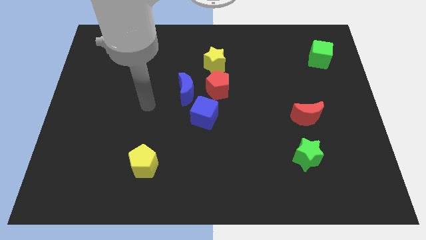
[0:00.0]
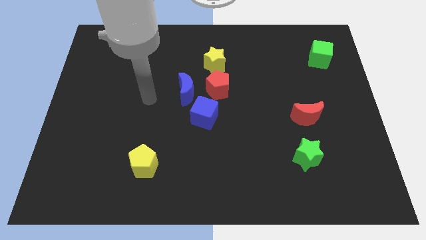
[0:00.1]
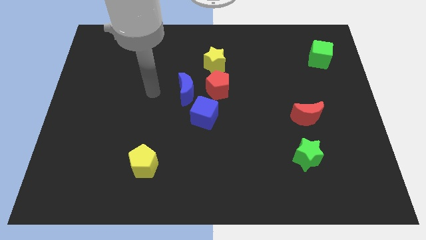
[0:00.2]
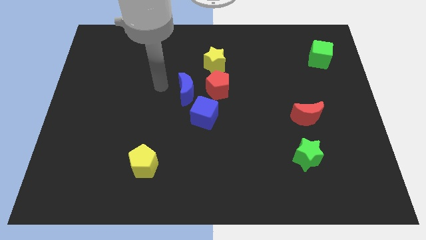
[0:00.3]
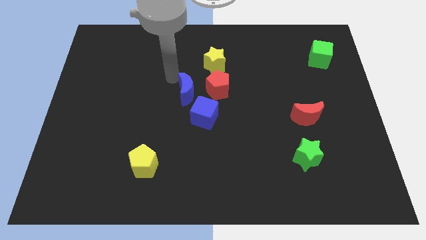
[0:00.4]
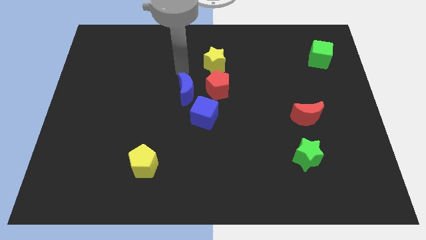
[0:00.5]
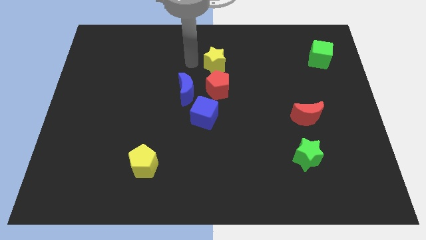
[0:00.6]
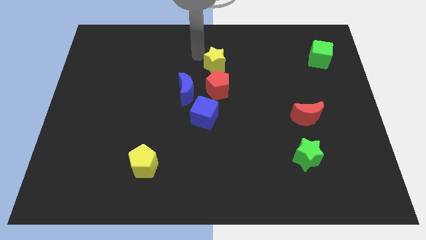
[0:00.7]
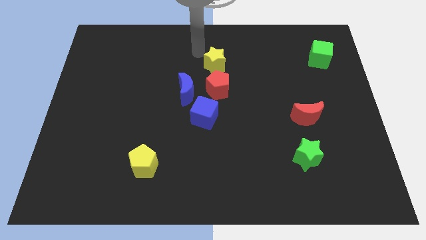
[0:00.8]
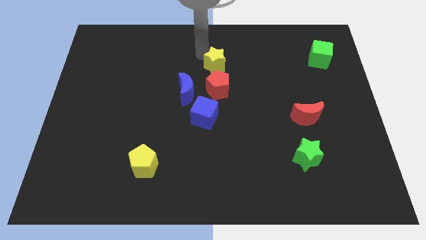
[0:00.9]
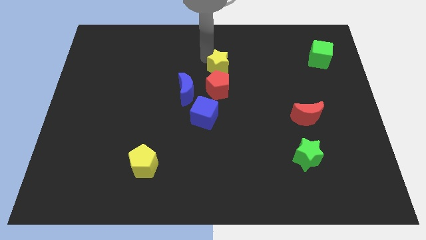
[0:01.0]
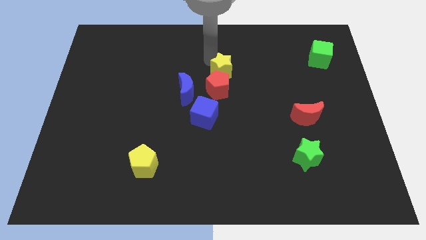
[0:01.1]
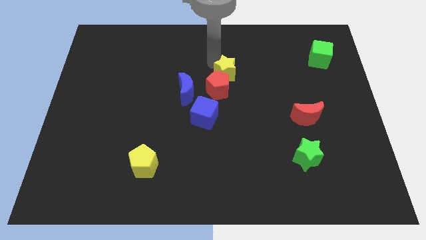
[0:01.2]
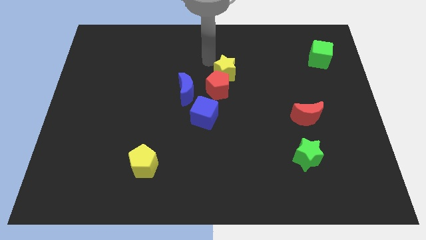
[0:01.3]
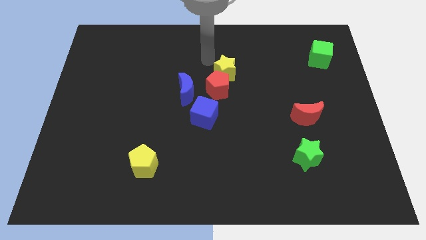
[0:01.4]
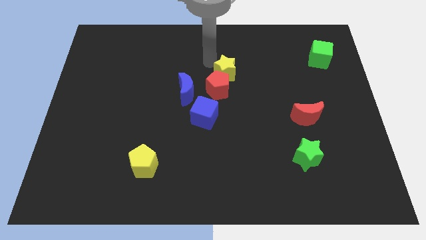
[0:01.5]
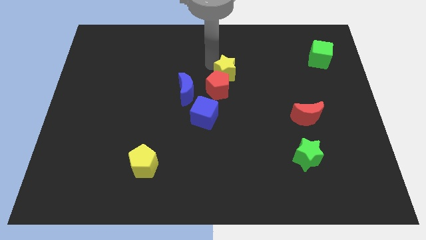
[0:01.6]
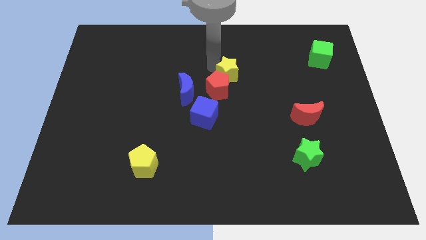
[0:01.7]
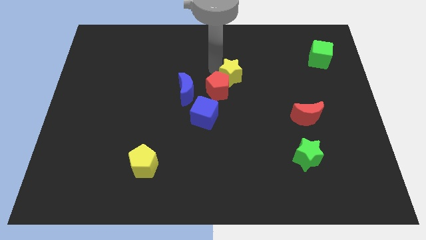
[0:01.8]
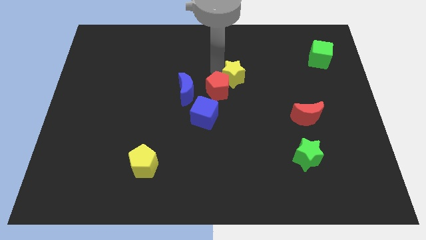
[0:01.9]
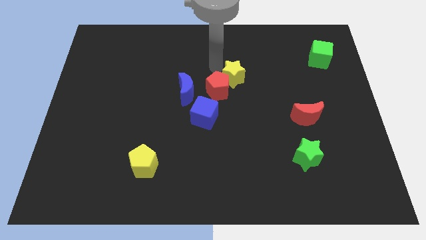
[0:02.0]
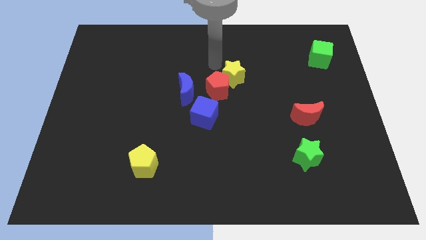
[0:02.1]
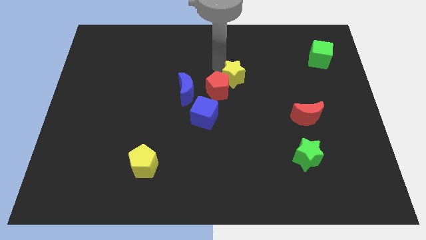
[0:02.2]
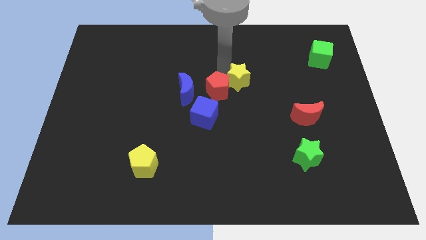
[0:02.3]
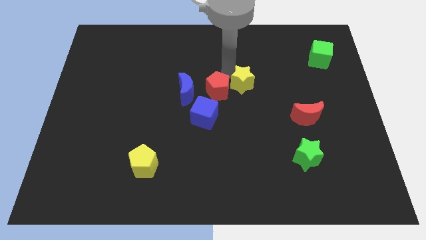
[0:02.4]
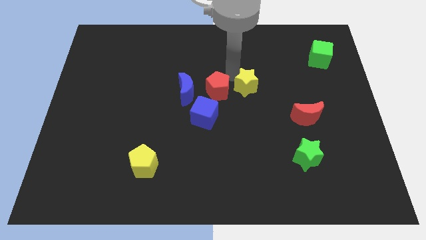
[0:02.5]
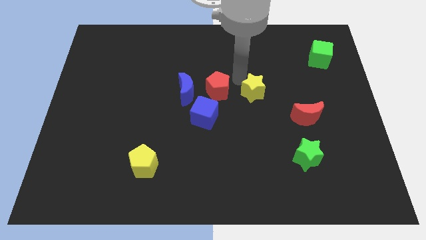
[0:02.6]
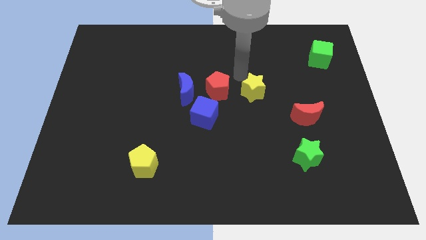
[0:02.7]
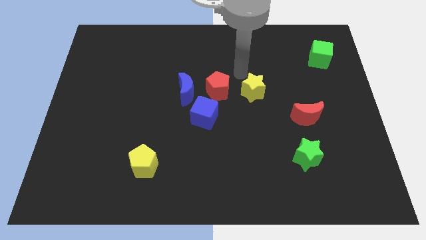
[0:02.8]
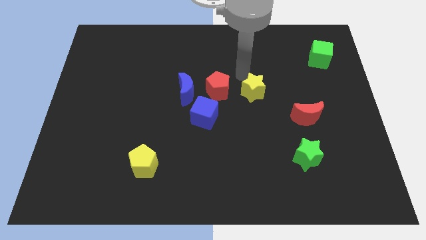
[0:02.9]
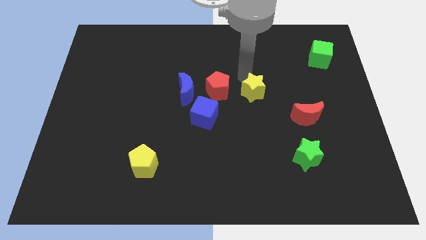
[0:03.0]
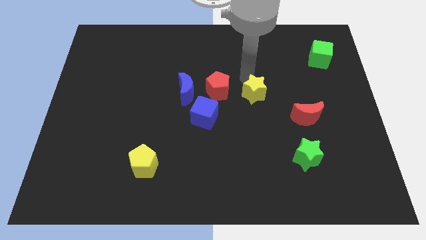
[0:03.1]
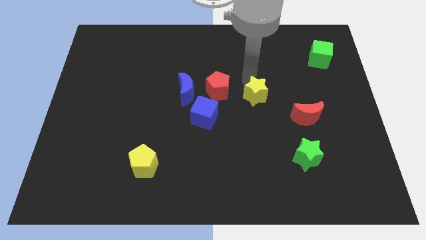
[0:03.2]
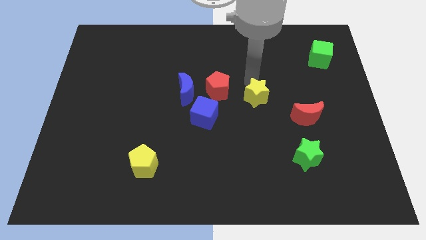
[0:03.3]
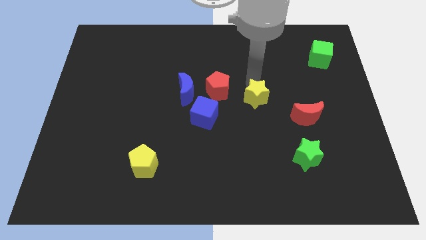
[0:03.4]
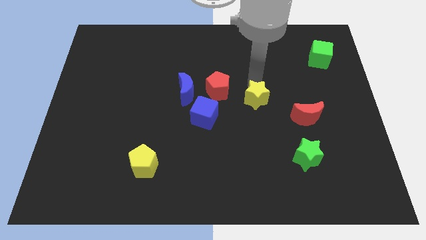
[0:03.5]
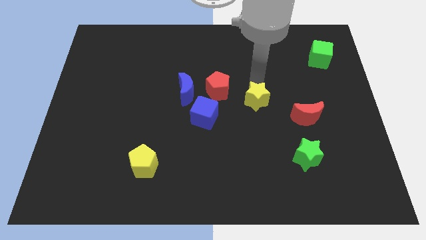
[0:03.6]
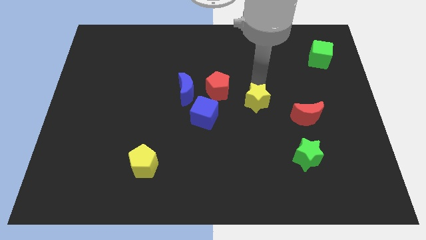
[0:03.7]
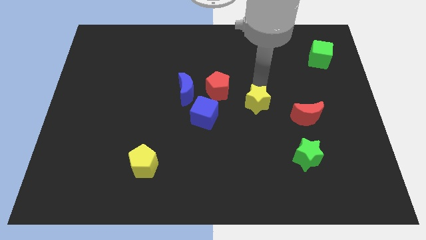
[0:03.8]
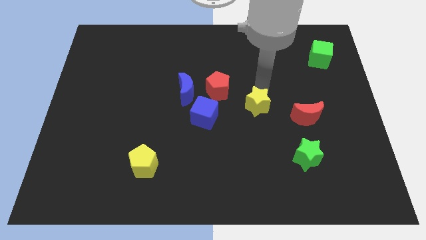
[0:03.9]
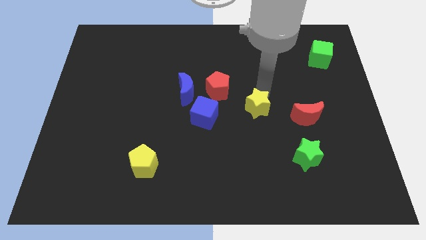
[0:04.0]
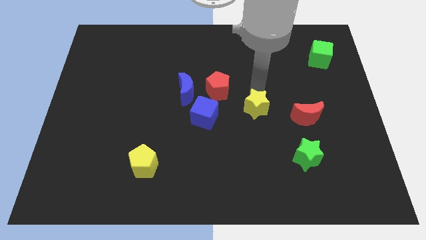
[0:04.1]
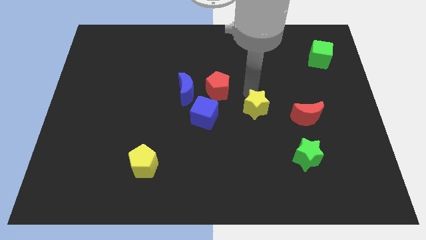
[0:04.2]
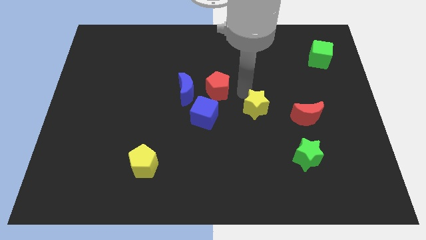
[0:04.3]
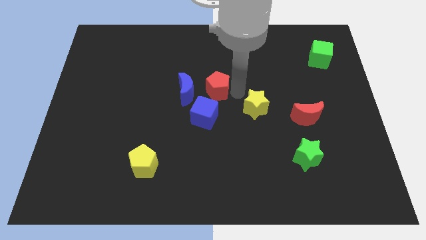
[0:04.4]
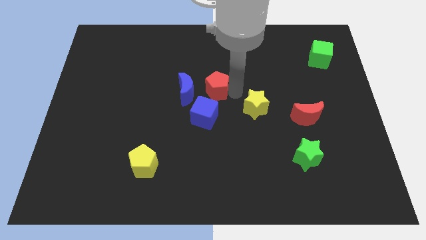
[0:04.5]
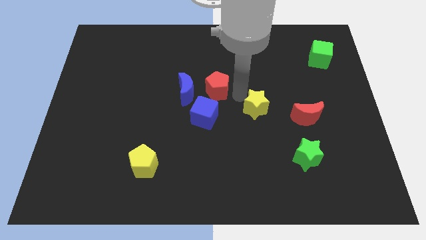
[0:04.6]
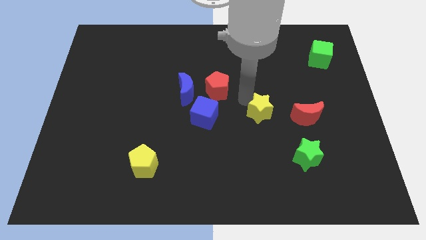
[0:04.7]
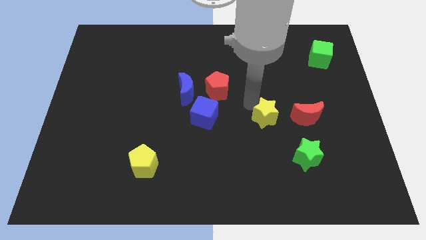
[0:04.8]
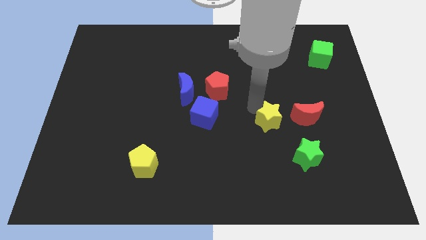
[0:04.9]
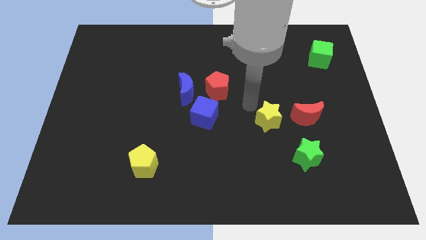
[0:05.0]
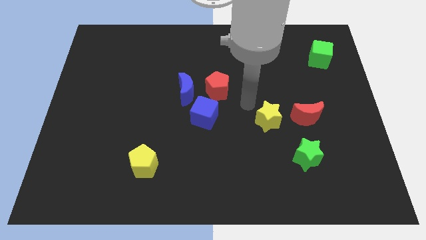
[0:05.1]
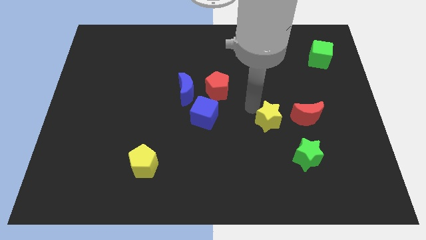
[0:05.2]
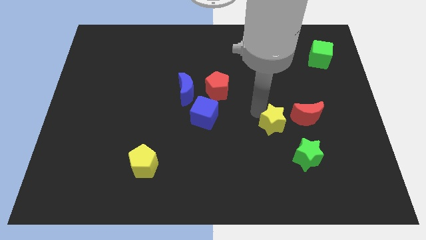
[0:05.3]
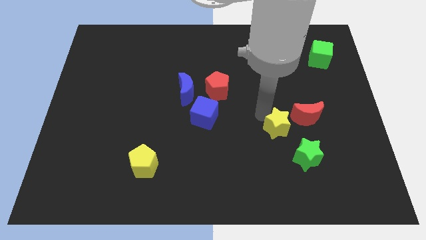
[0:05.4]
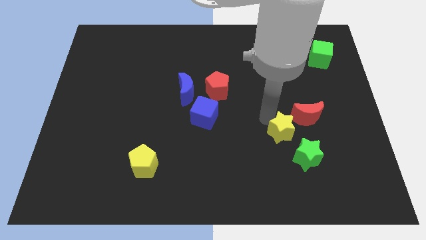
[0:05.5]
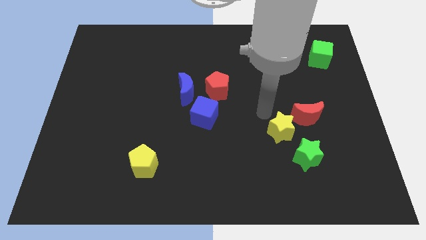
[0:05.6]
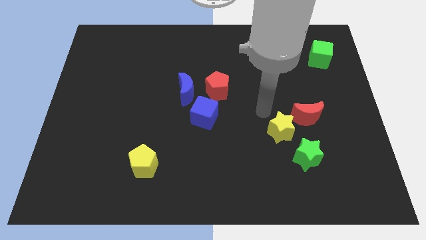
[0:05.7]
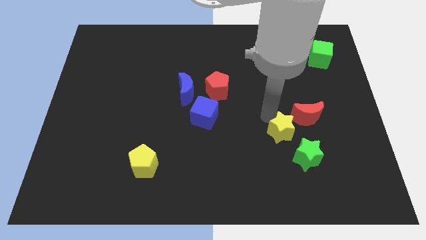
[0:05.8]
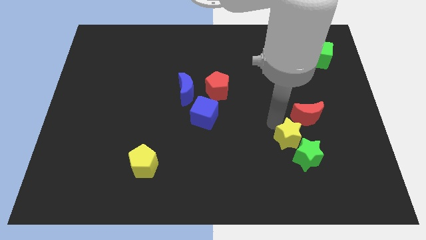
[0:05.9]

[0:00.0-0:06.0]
push the yellow star towards the green star

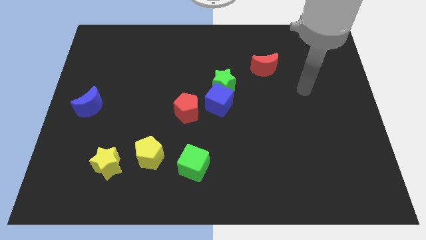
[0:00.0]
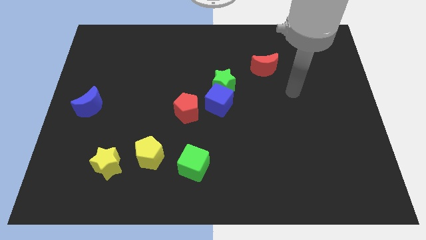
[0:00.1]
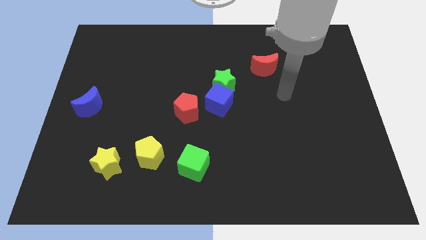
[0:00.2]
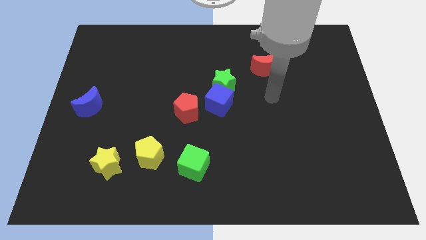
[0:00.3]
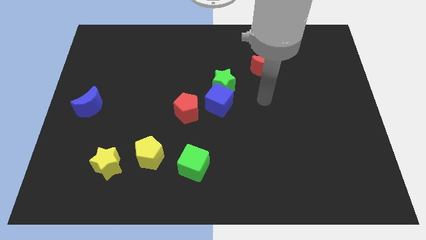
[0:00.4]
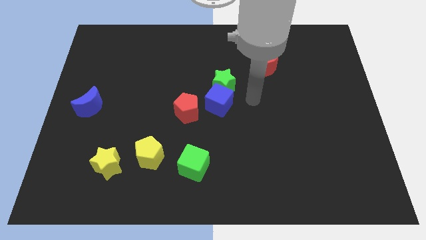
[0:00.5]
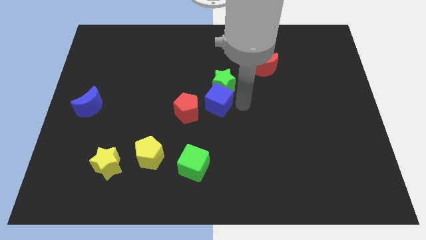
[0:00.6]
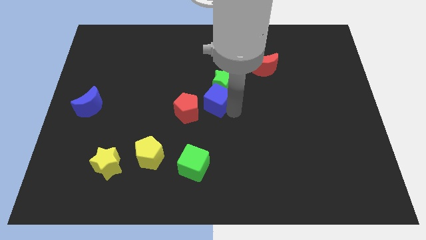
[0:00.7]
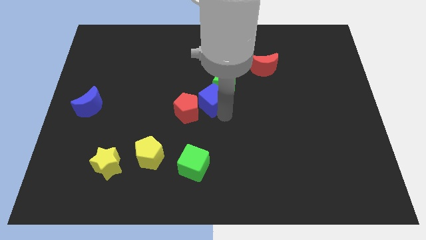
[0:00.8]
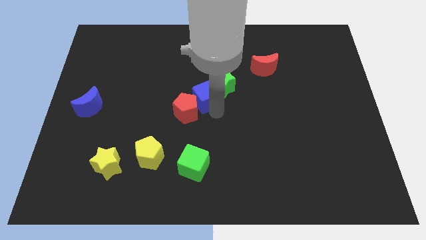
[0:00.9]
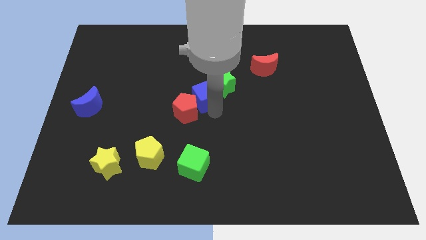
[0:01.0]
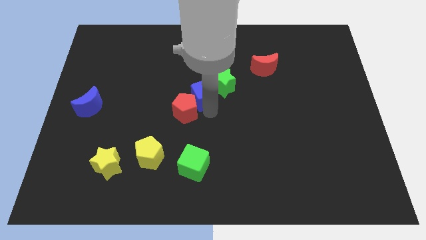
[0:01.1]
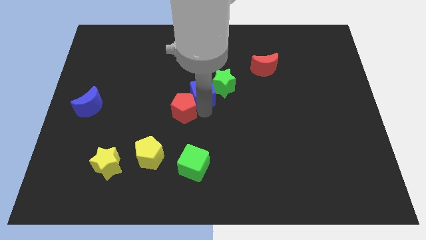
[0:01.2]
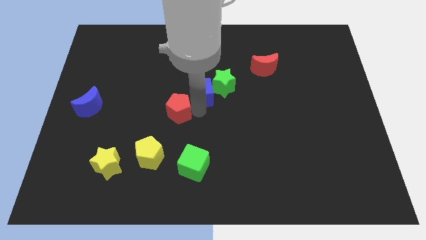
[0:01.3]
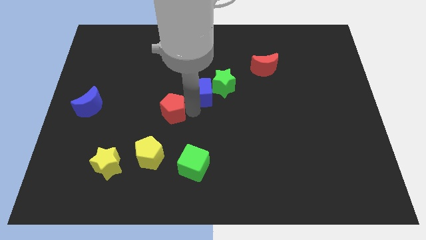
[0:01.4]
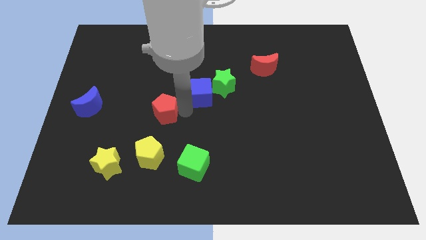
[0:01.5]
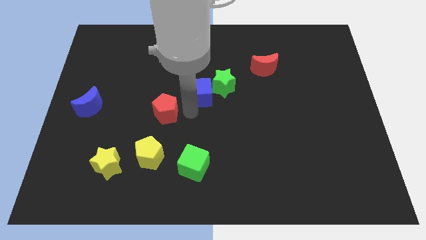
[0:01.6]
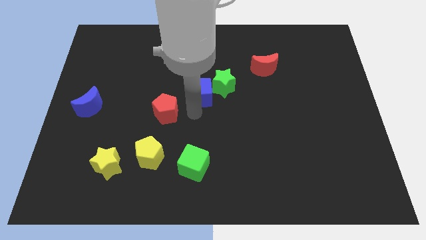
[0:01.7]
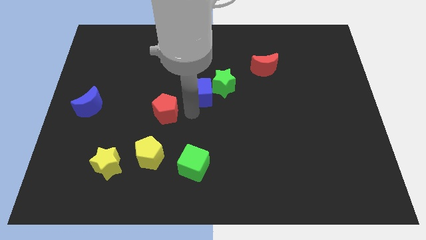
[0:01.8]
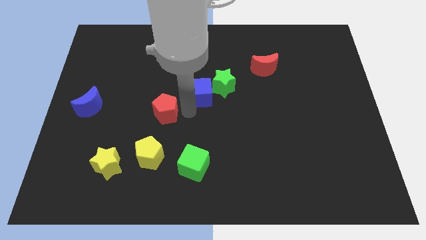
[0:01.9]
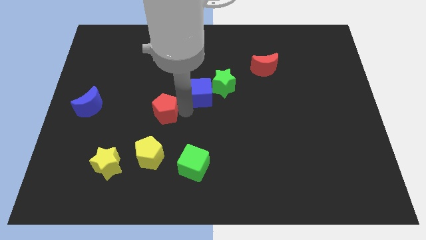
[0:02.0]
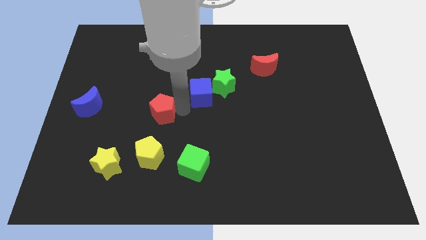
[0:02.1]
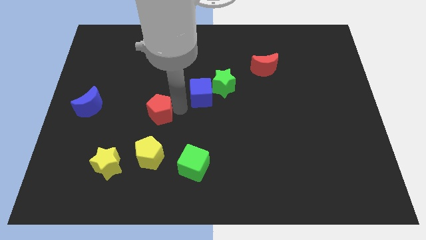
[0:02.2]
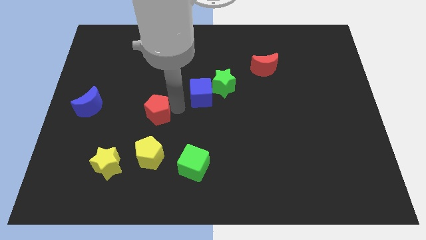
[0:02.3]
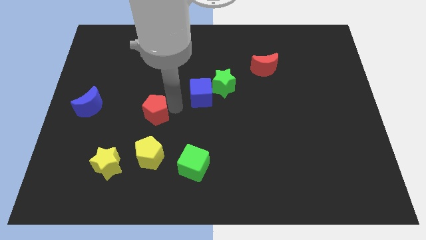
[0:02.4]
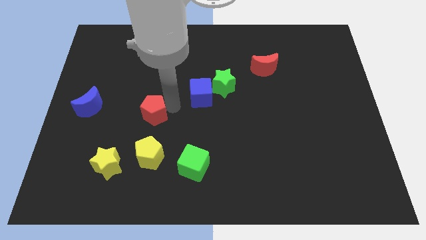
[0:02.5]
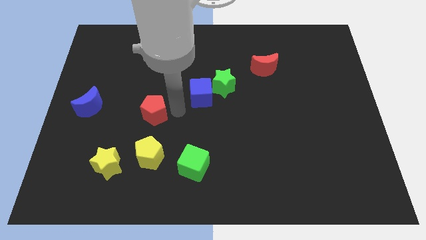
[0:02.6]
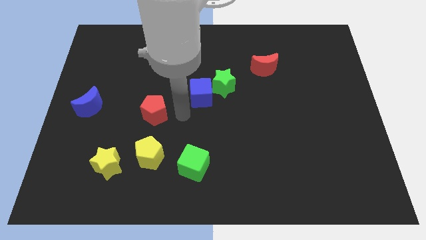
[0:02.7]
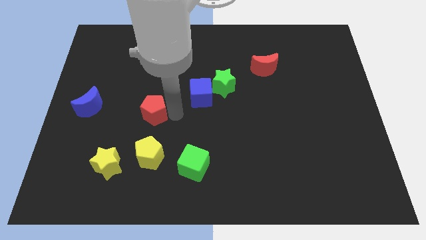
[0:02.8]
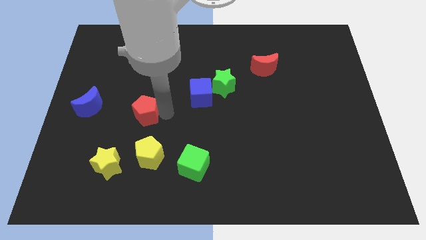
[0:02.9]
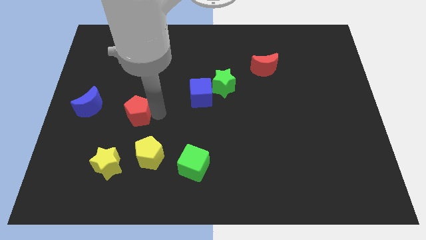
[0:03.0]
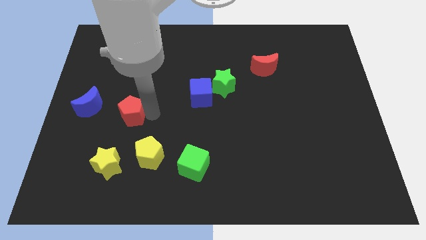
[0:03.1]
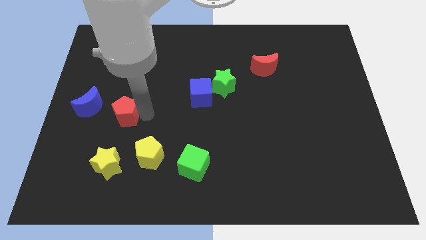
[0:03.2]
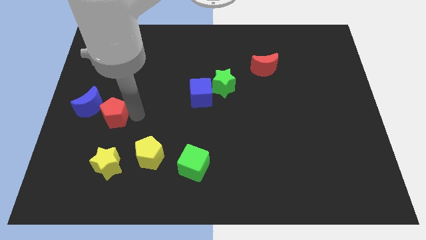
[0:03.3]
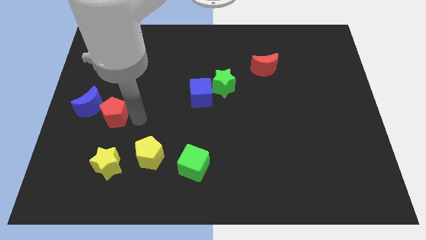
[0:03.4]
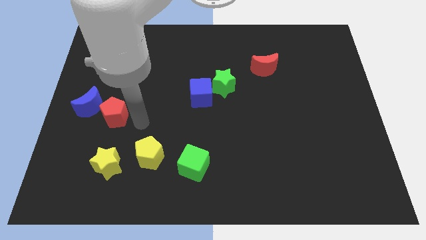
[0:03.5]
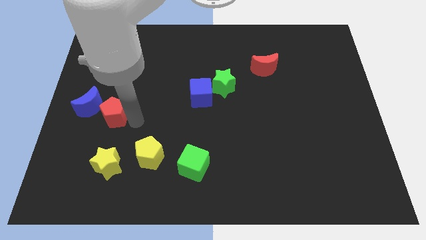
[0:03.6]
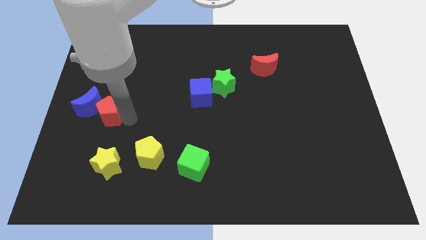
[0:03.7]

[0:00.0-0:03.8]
put the red pentagon next to the blue moon
